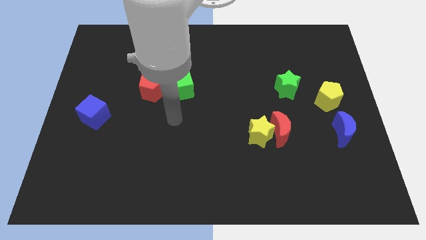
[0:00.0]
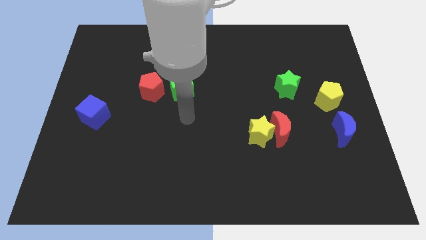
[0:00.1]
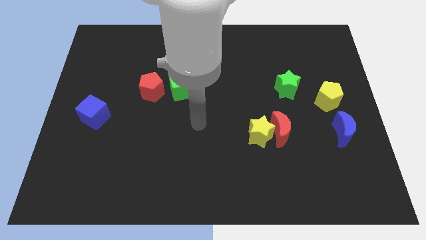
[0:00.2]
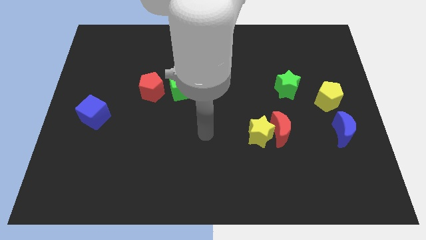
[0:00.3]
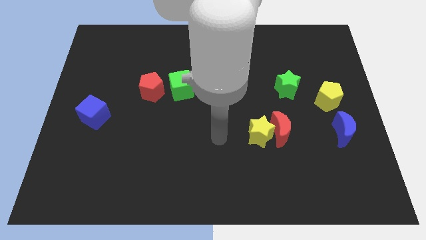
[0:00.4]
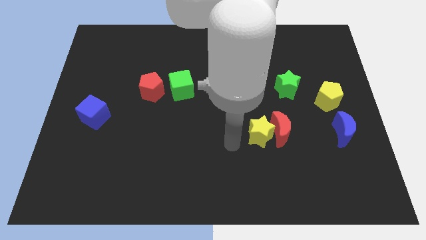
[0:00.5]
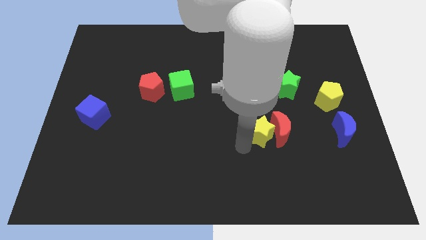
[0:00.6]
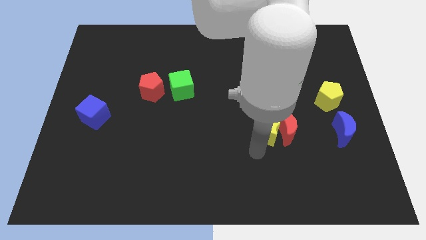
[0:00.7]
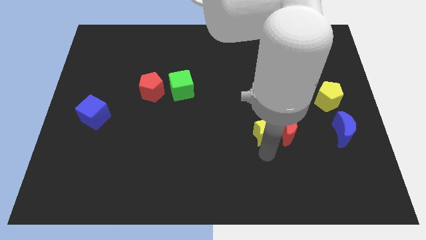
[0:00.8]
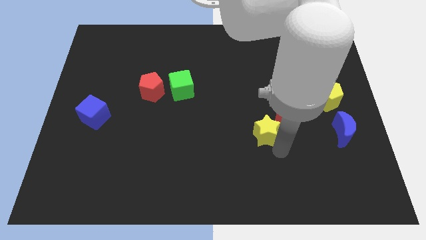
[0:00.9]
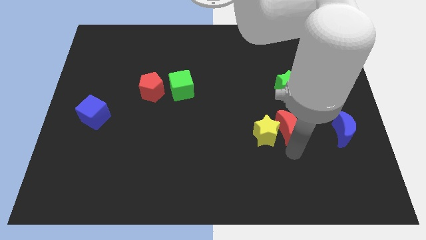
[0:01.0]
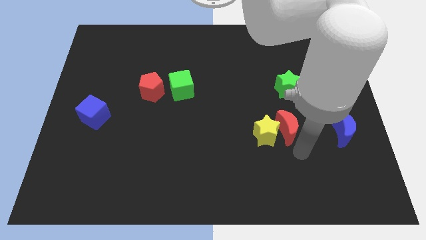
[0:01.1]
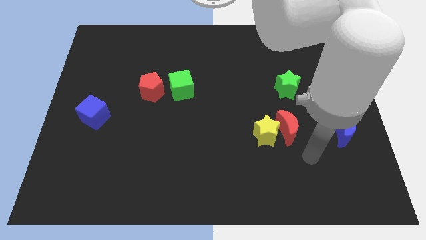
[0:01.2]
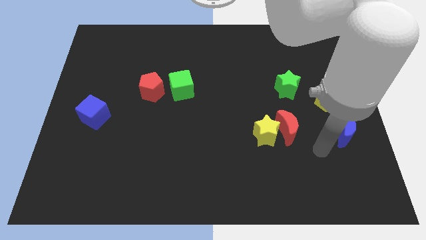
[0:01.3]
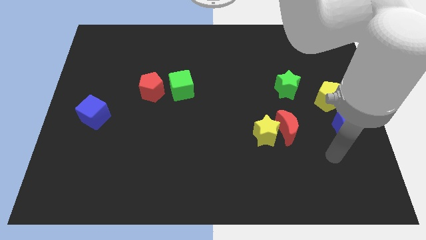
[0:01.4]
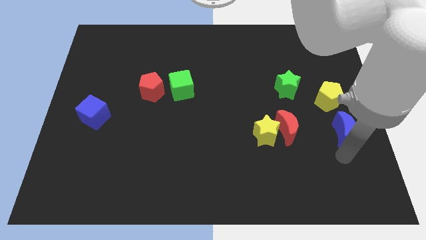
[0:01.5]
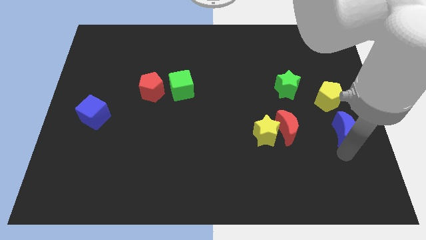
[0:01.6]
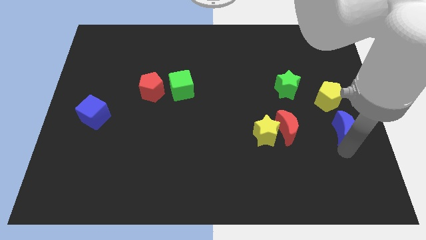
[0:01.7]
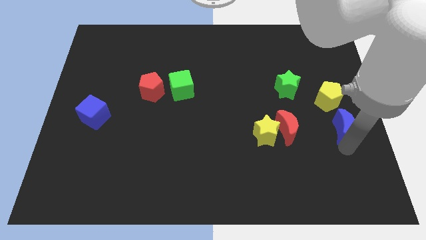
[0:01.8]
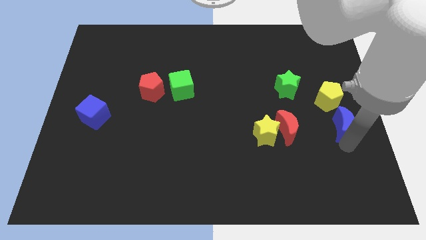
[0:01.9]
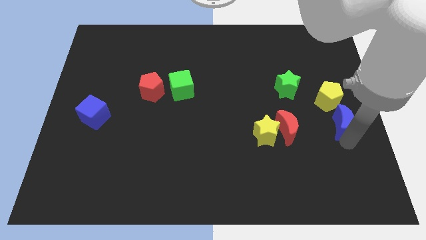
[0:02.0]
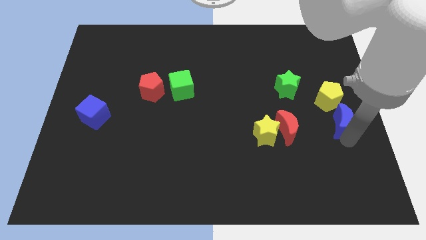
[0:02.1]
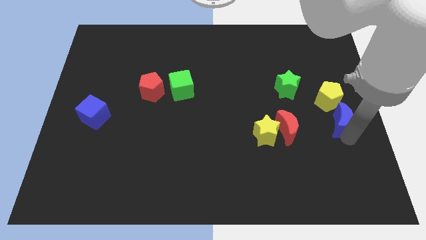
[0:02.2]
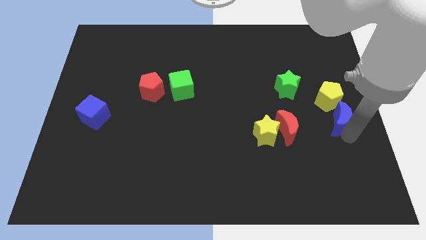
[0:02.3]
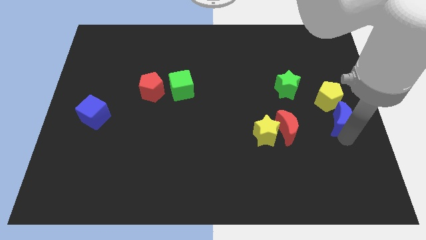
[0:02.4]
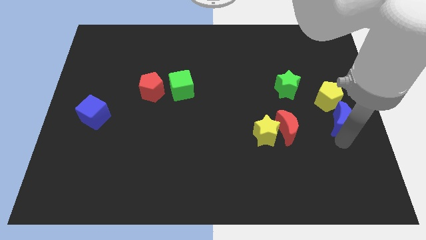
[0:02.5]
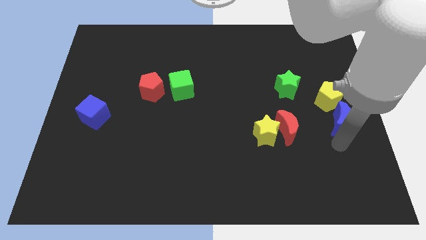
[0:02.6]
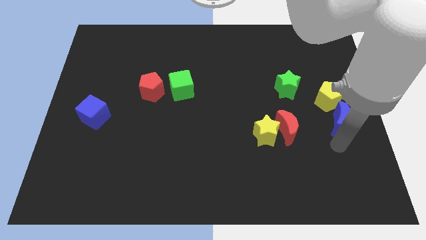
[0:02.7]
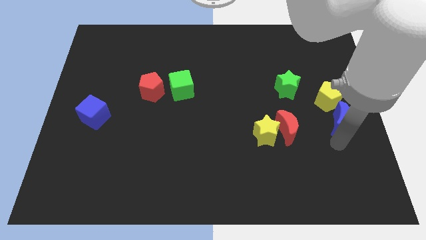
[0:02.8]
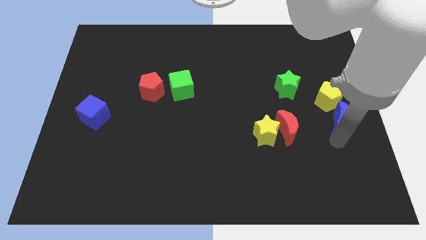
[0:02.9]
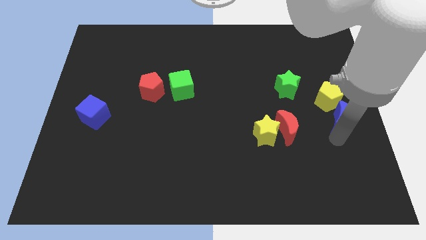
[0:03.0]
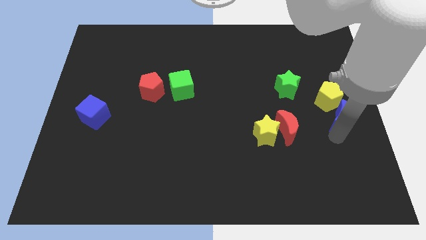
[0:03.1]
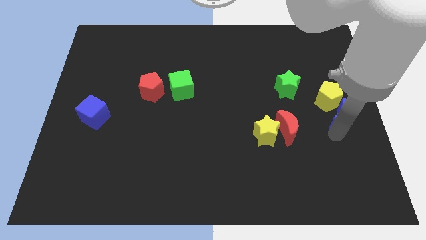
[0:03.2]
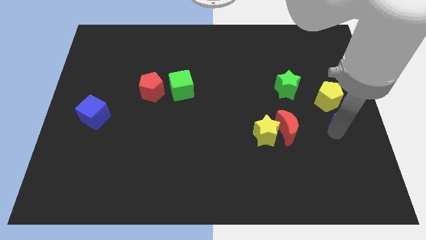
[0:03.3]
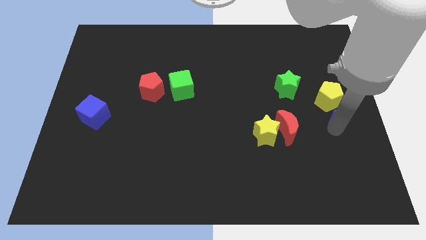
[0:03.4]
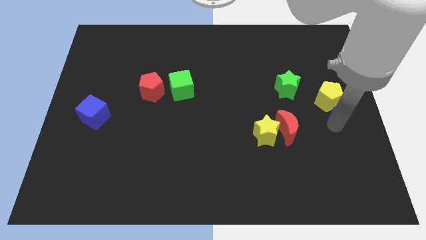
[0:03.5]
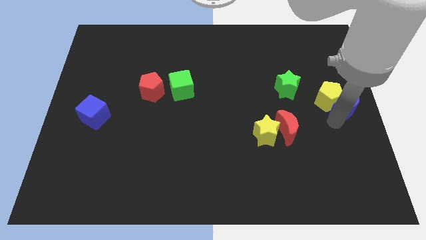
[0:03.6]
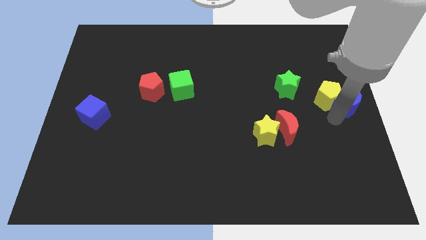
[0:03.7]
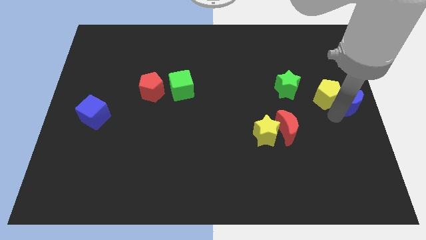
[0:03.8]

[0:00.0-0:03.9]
slide the blue moon a little up

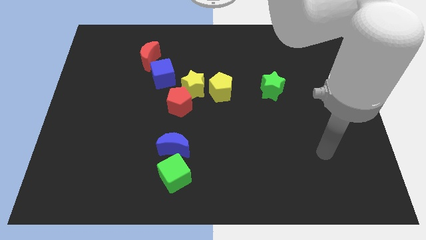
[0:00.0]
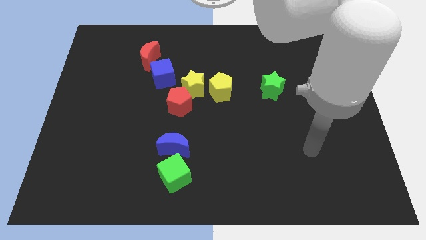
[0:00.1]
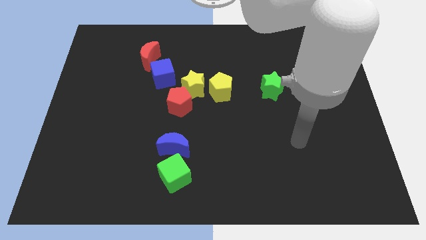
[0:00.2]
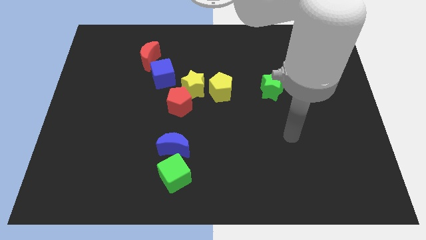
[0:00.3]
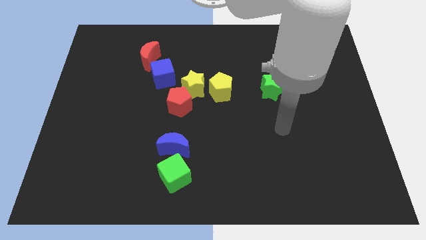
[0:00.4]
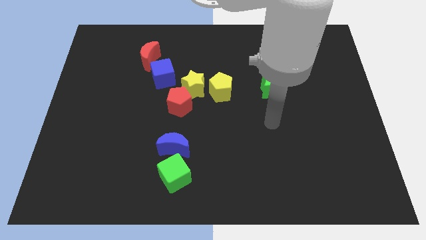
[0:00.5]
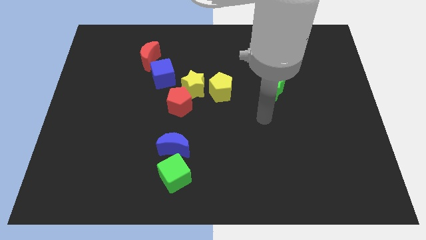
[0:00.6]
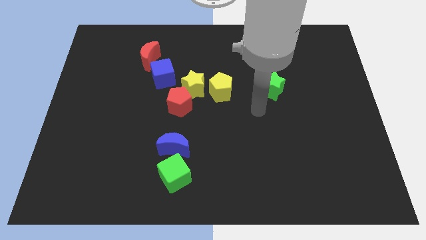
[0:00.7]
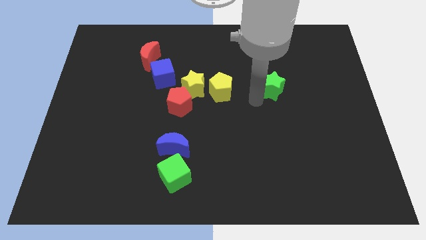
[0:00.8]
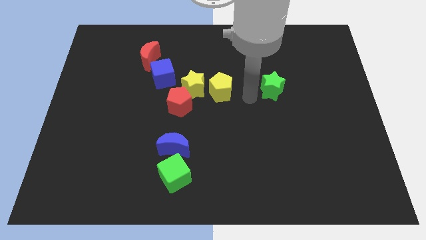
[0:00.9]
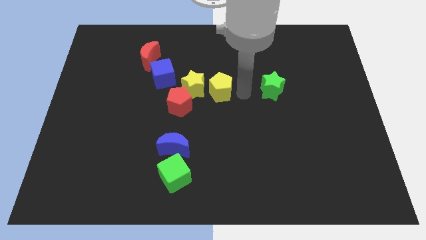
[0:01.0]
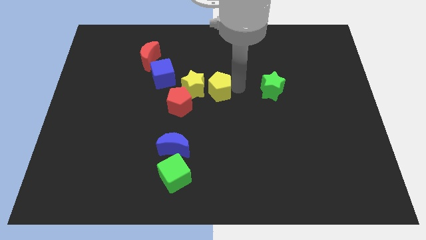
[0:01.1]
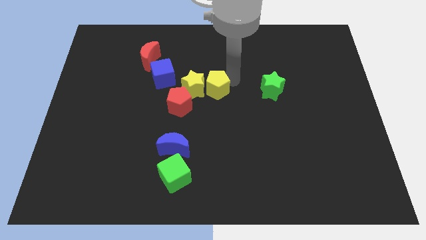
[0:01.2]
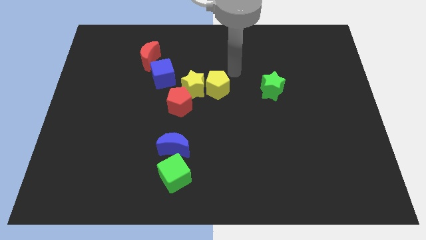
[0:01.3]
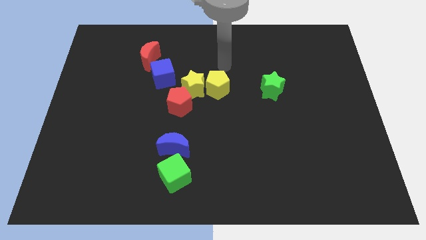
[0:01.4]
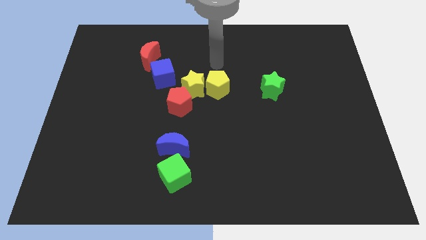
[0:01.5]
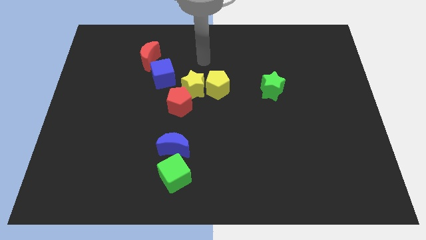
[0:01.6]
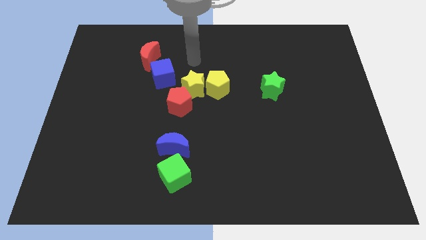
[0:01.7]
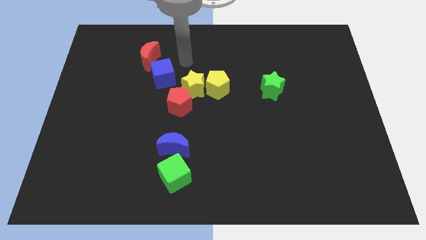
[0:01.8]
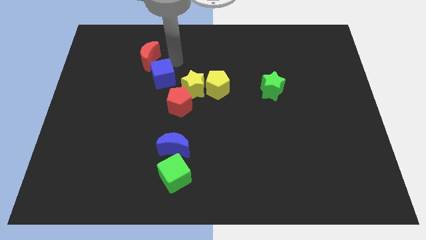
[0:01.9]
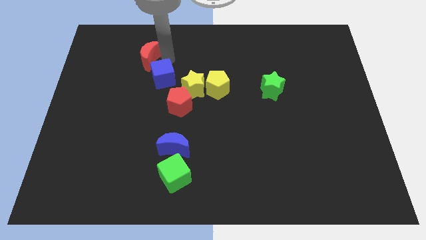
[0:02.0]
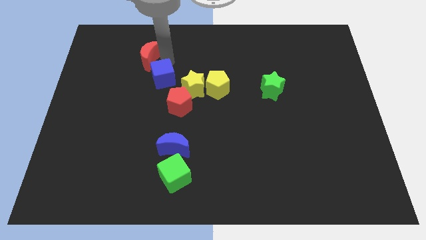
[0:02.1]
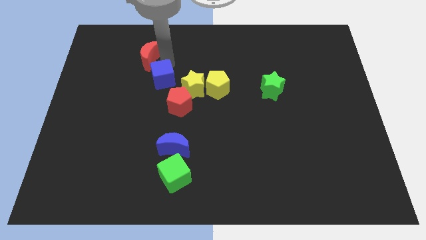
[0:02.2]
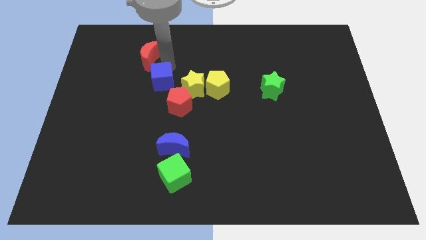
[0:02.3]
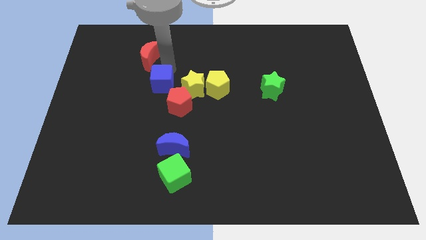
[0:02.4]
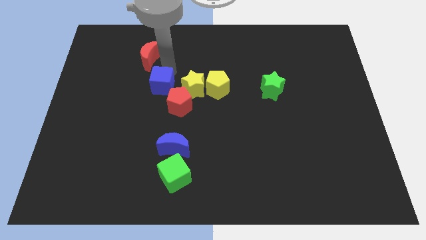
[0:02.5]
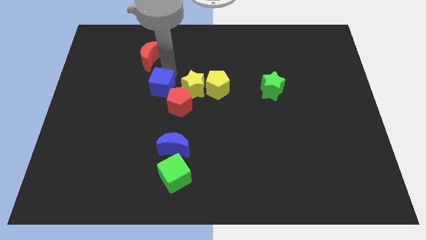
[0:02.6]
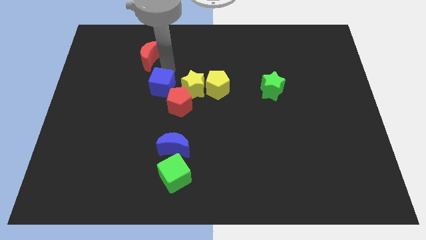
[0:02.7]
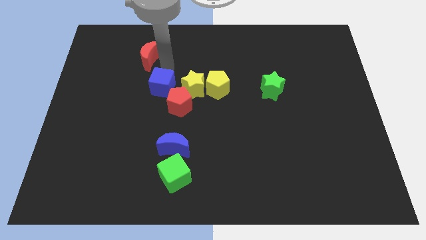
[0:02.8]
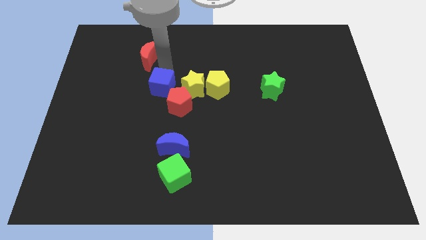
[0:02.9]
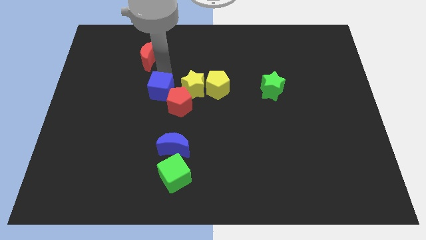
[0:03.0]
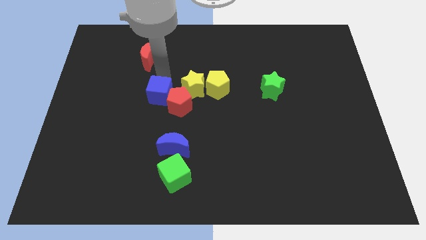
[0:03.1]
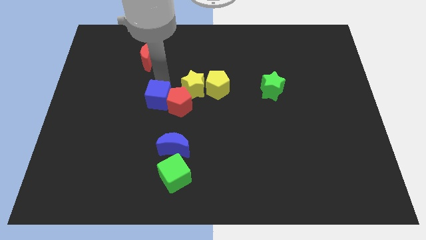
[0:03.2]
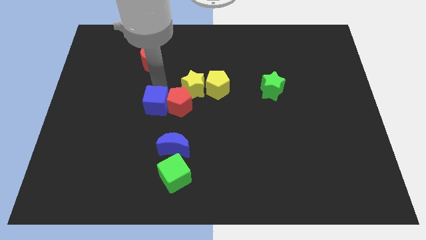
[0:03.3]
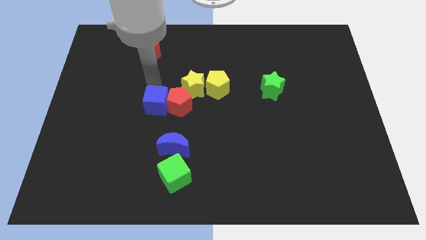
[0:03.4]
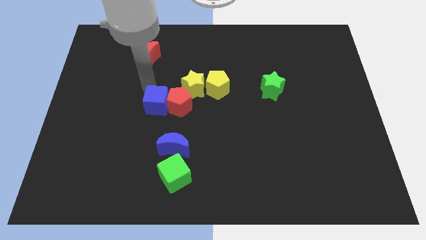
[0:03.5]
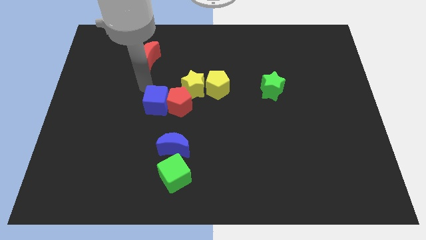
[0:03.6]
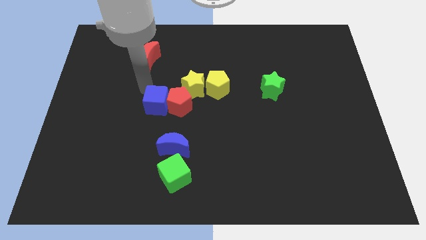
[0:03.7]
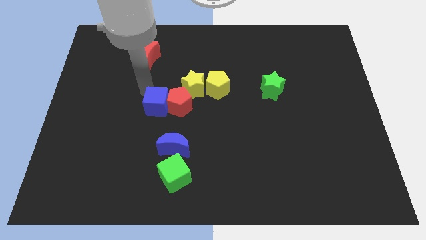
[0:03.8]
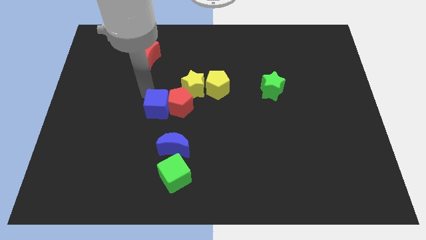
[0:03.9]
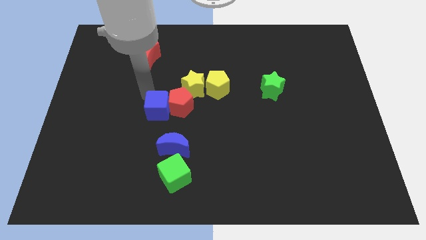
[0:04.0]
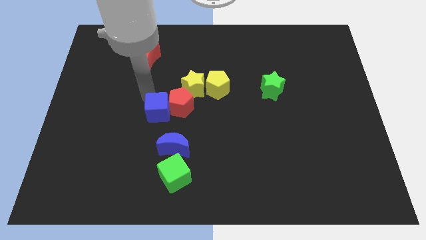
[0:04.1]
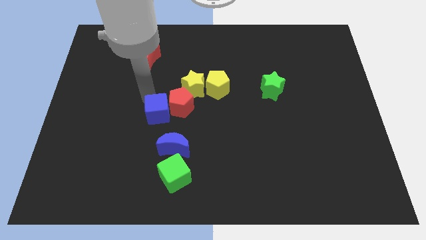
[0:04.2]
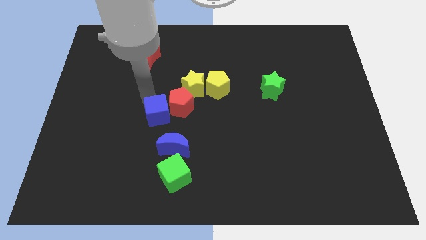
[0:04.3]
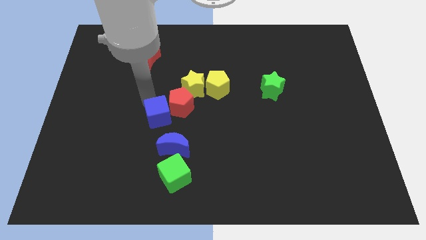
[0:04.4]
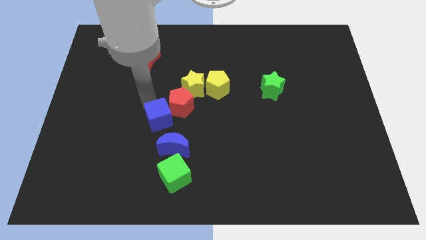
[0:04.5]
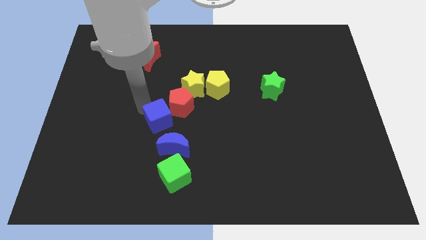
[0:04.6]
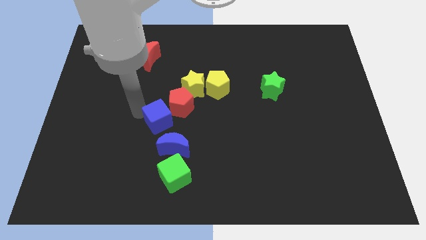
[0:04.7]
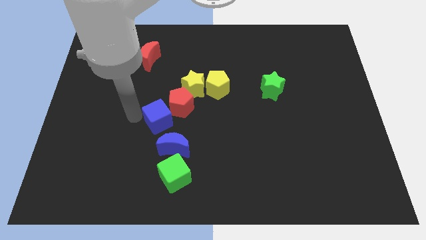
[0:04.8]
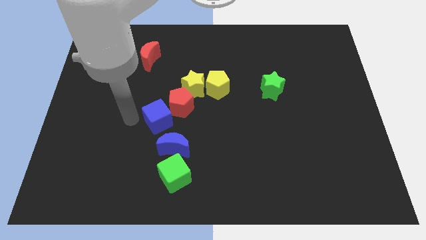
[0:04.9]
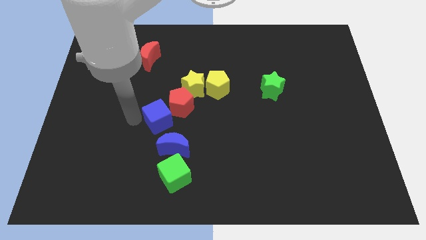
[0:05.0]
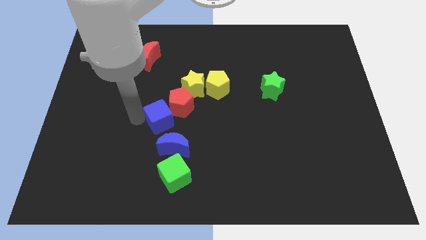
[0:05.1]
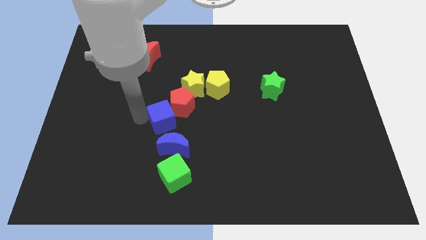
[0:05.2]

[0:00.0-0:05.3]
slide the blue cube a little down and right
